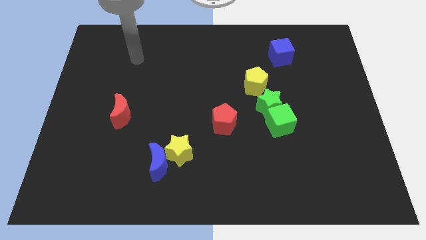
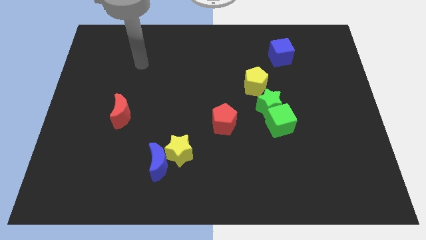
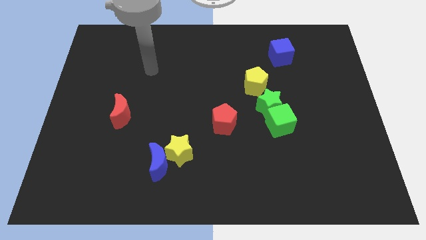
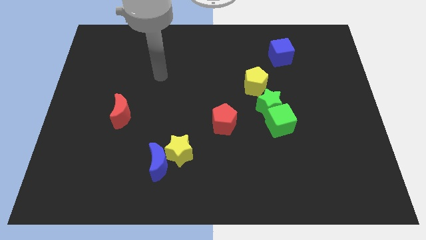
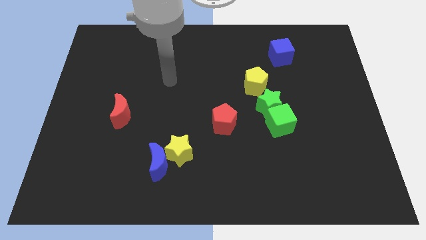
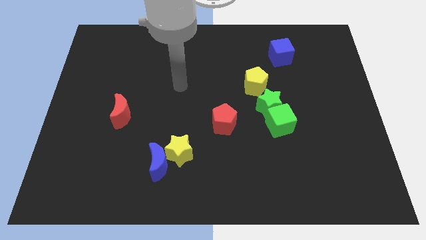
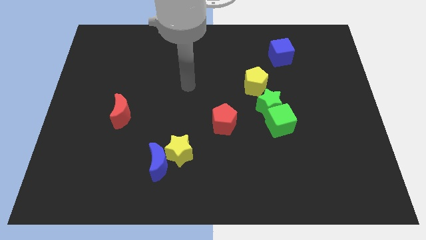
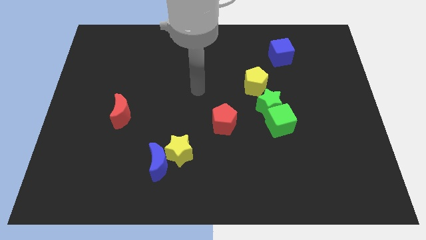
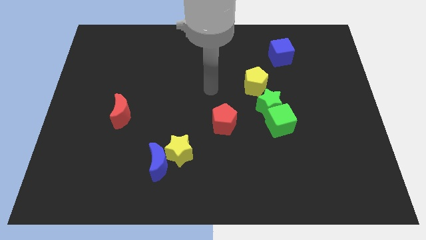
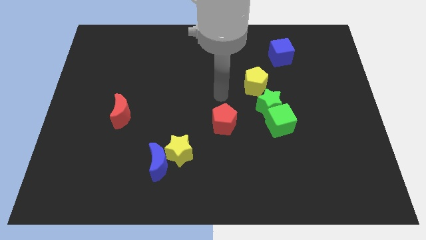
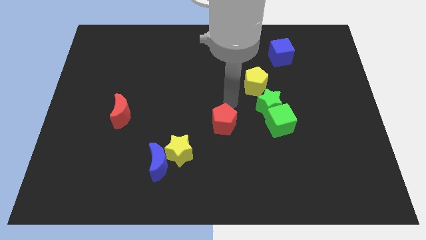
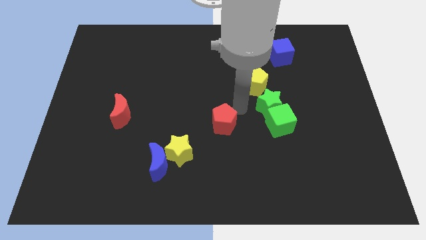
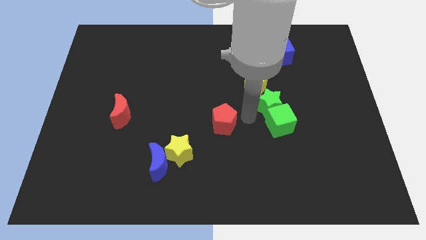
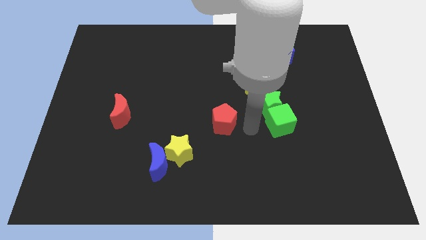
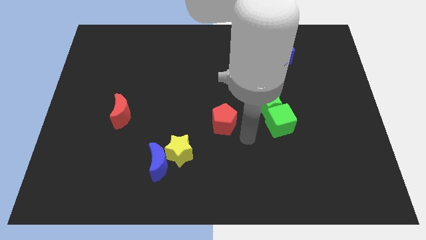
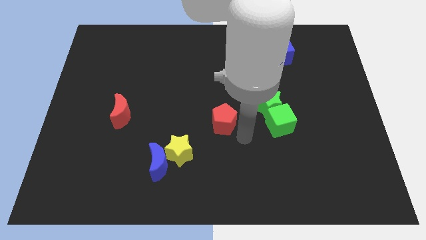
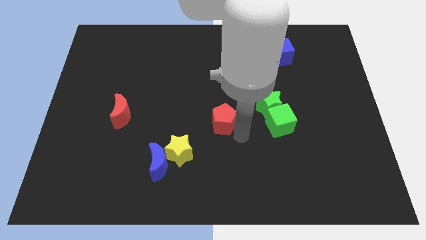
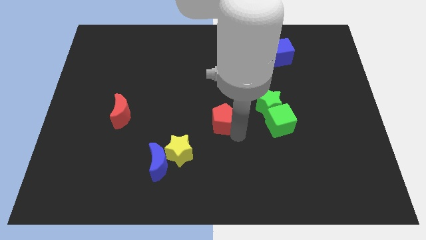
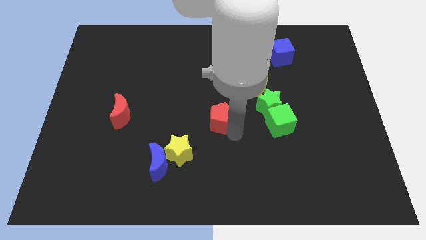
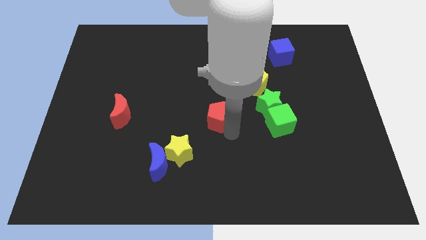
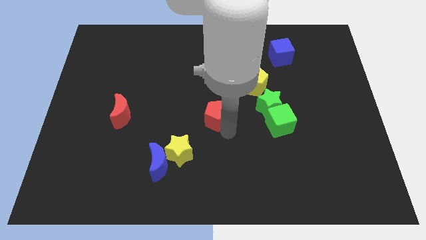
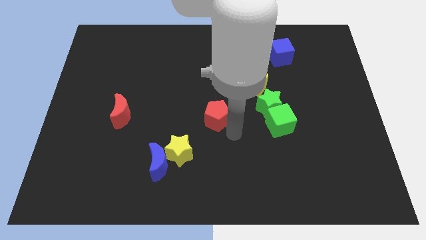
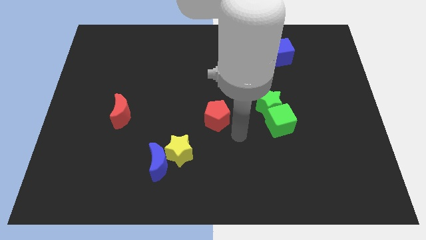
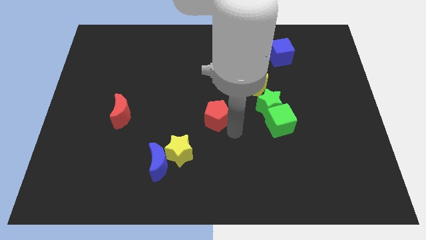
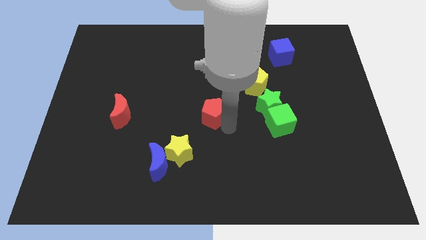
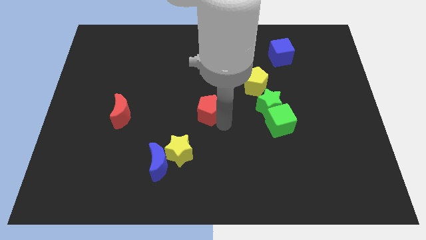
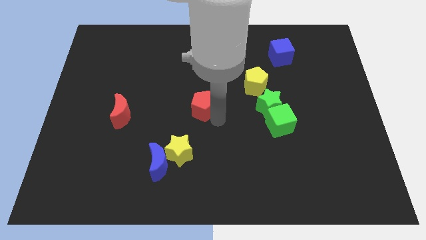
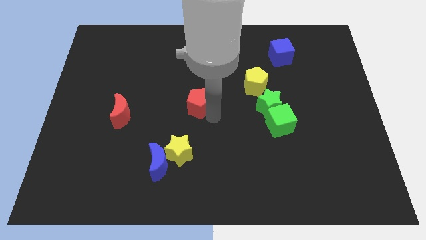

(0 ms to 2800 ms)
move the red pentagon upwards and to the left diagonally a bit

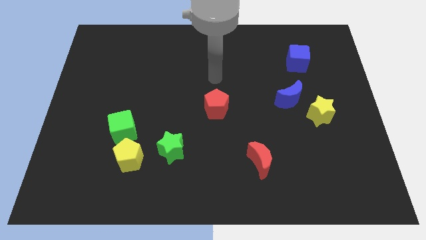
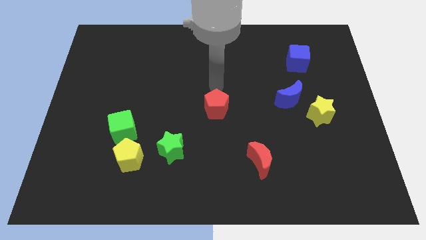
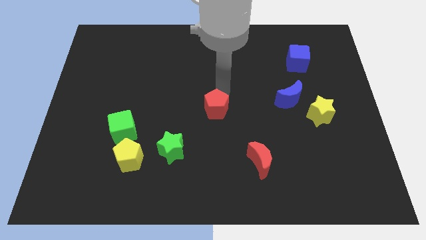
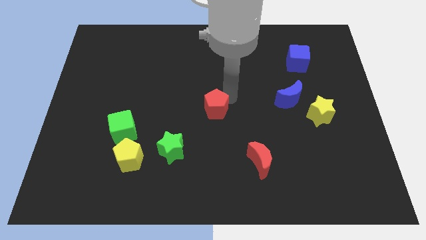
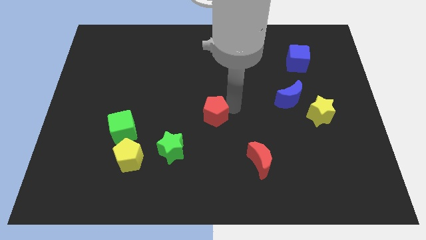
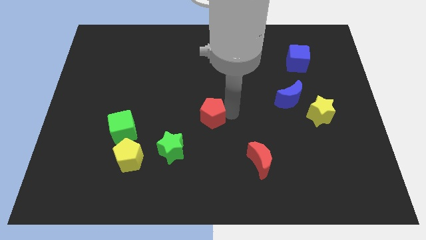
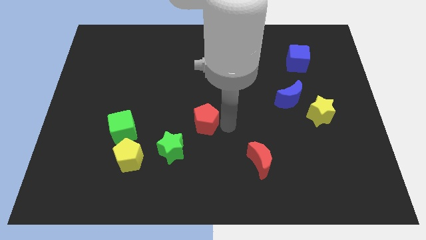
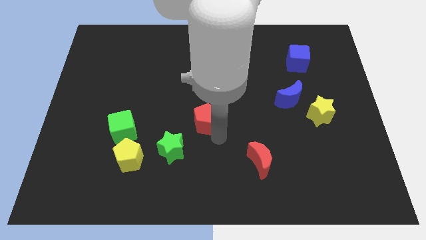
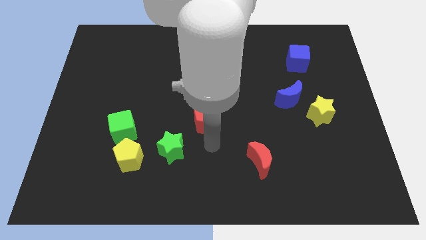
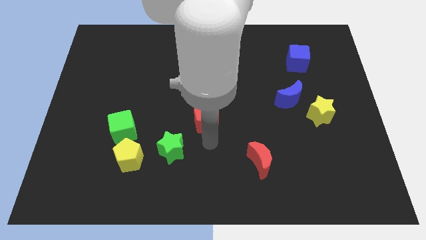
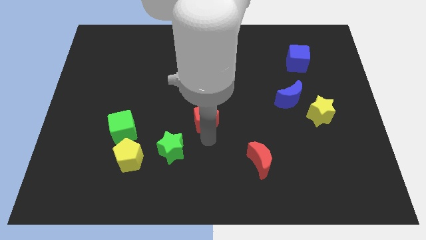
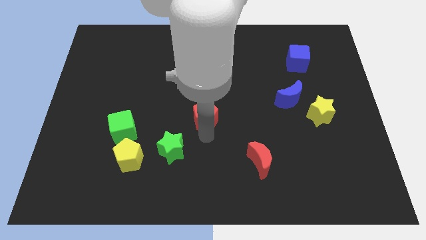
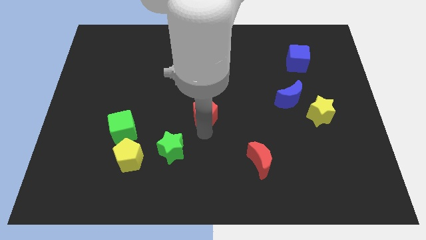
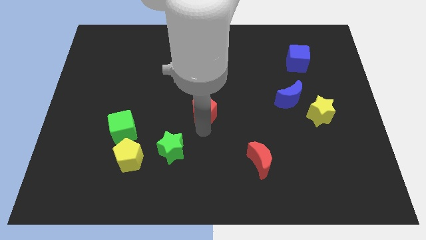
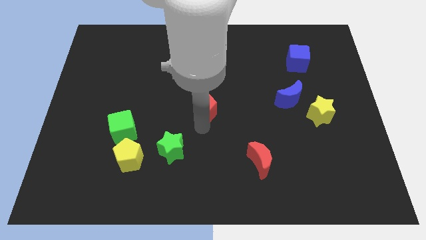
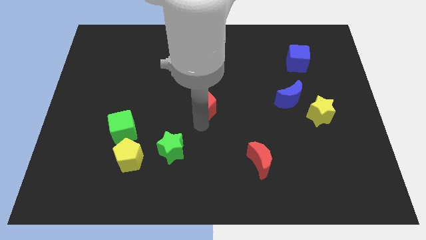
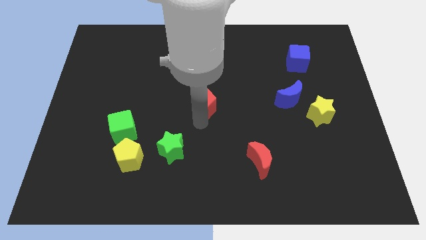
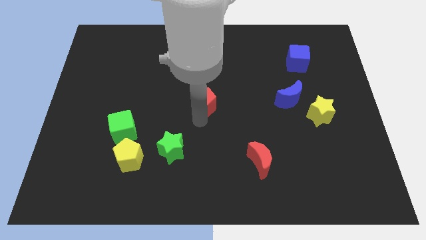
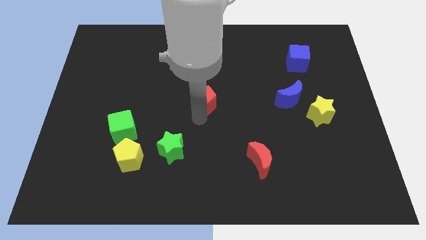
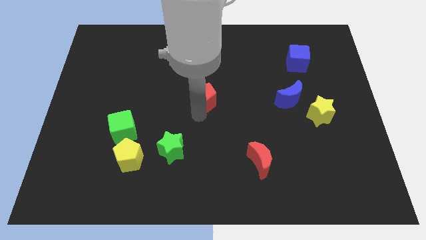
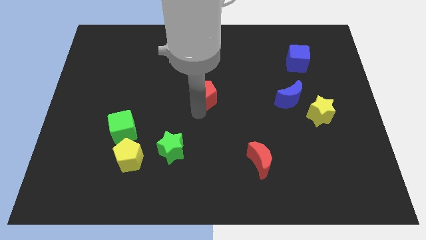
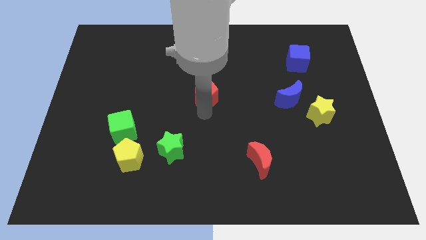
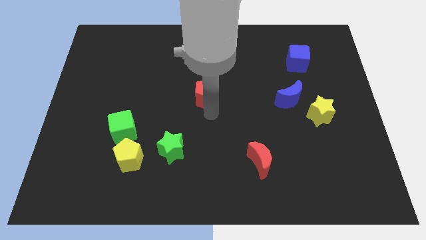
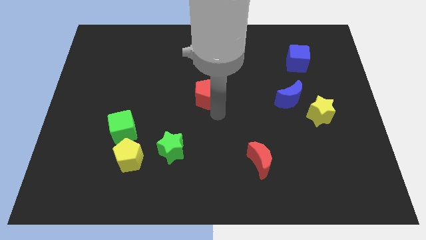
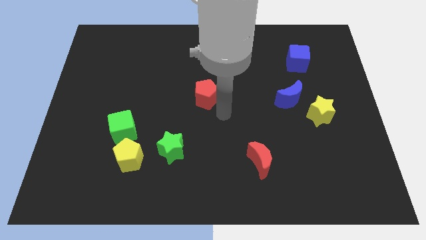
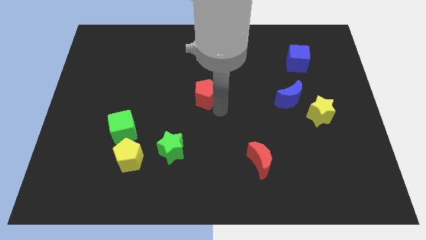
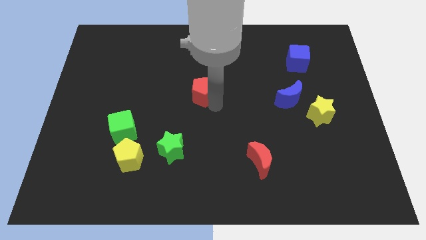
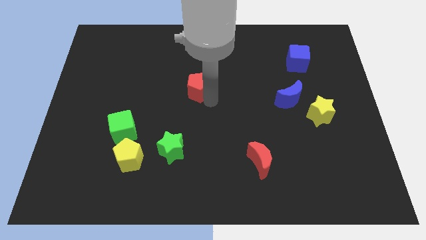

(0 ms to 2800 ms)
slightly slide the red pentagon upwards and to the left diagonally

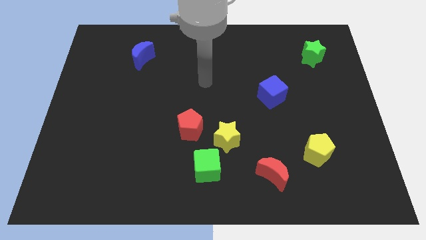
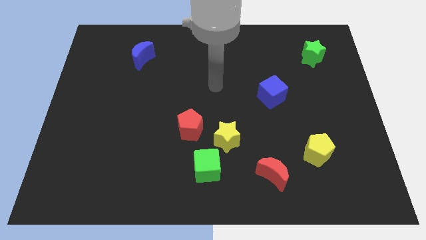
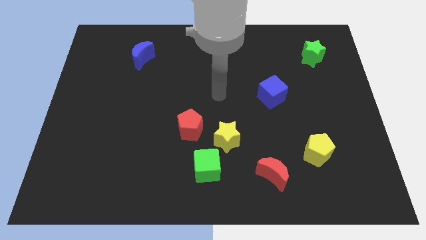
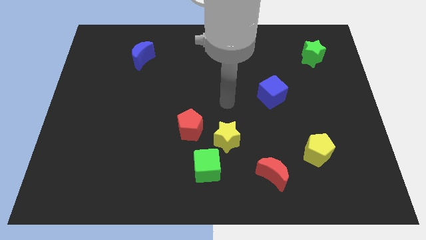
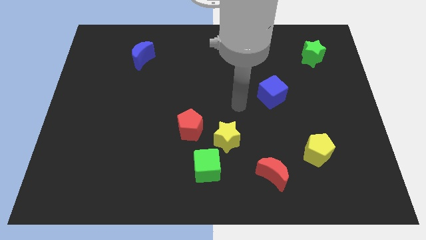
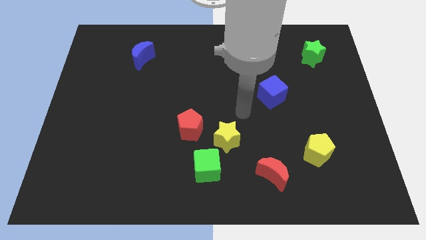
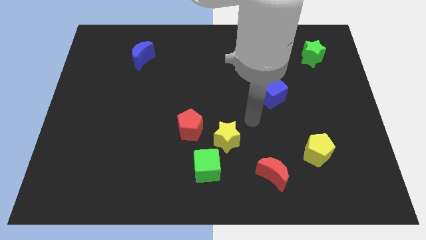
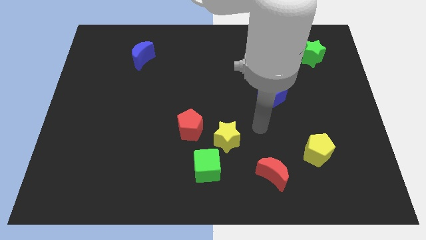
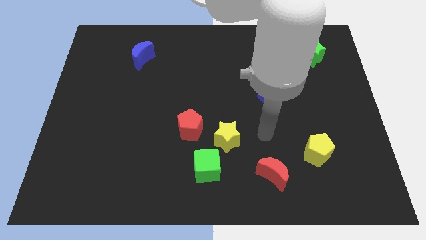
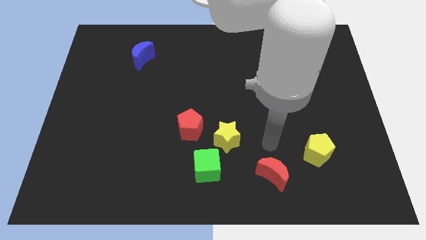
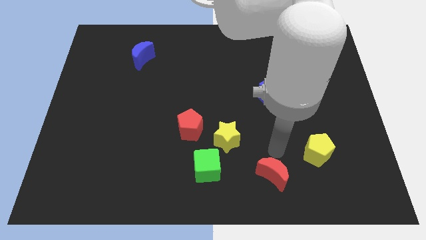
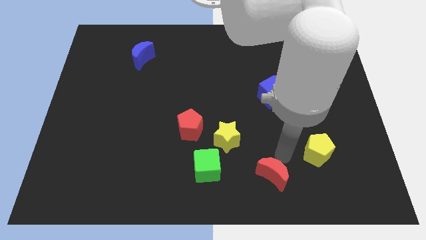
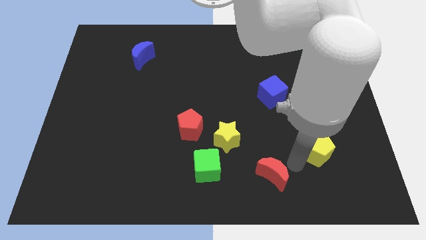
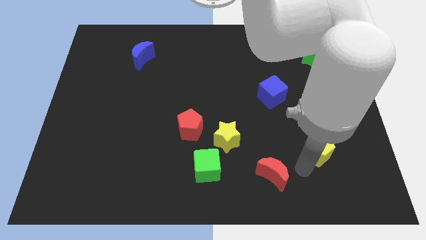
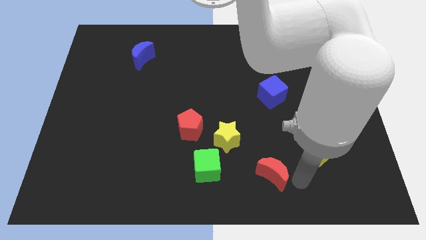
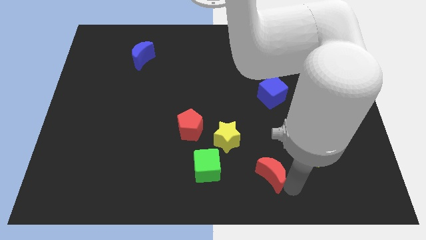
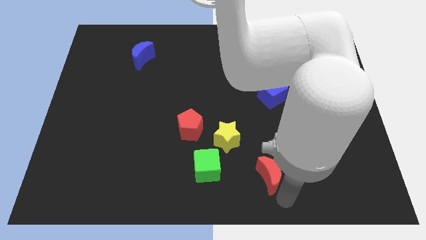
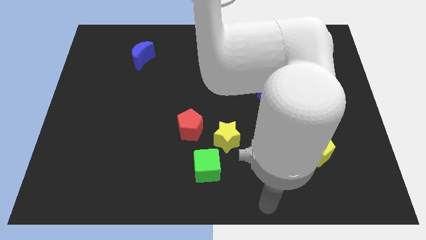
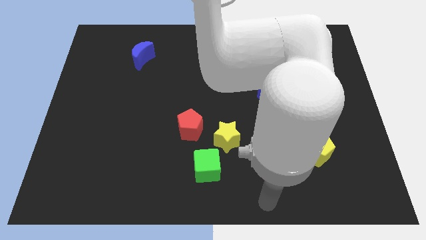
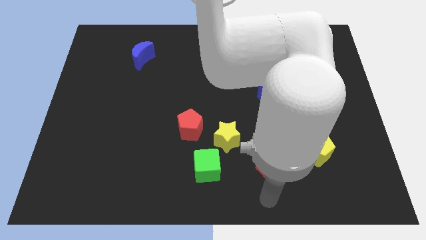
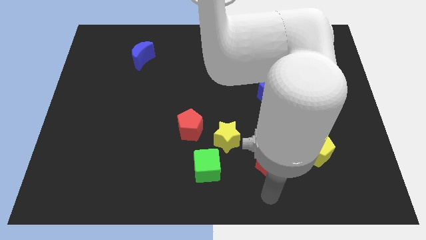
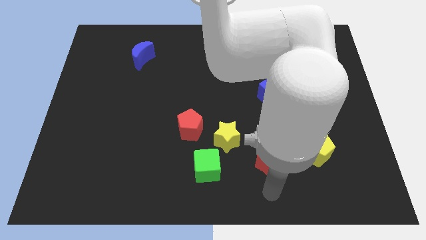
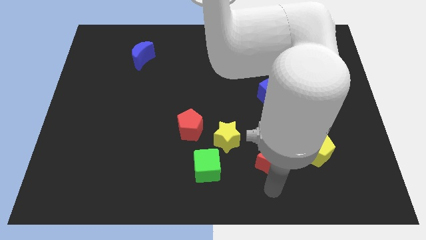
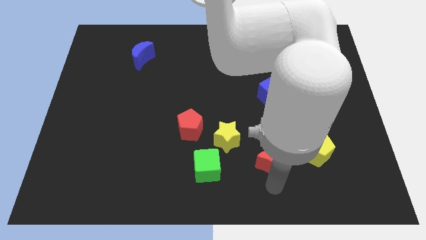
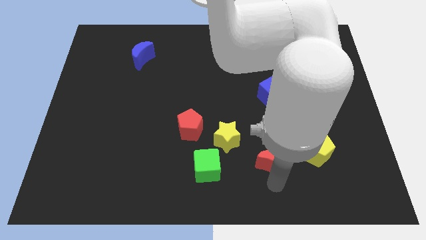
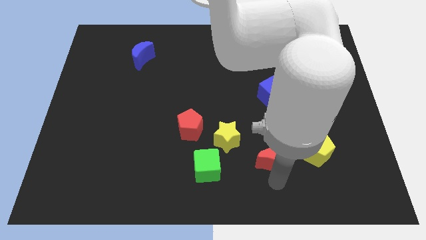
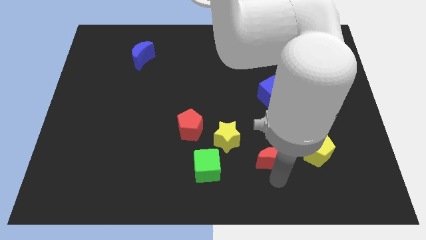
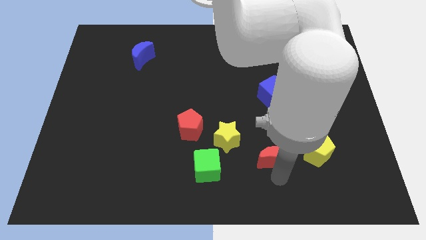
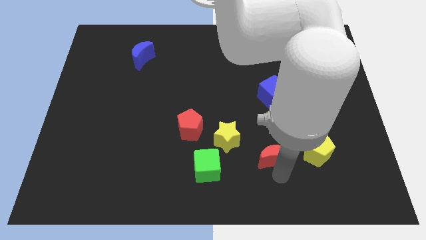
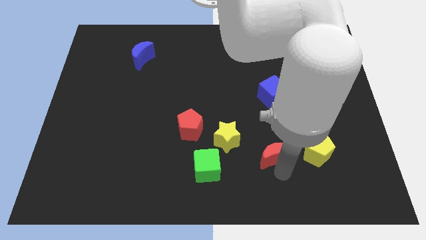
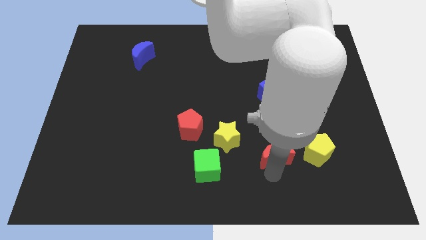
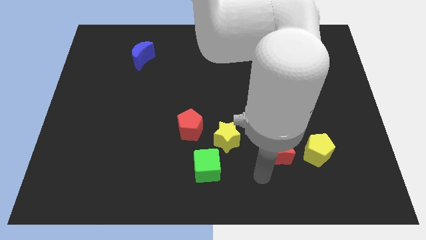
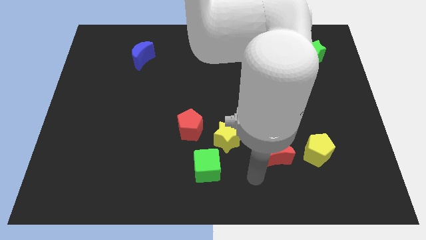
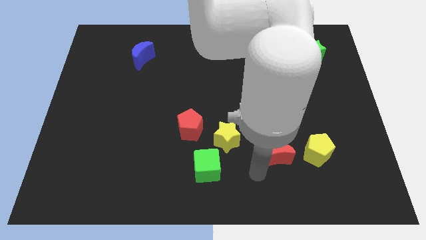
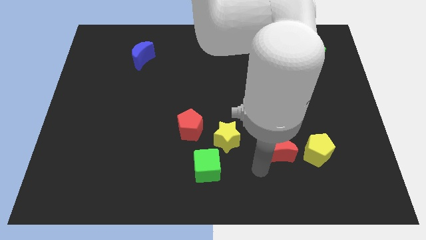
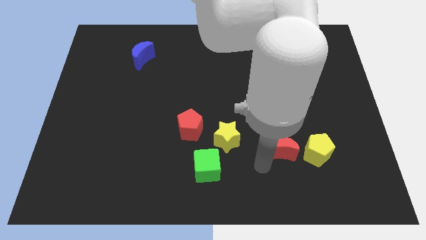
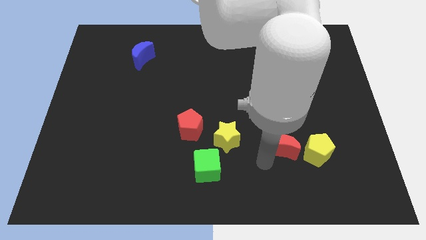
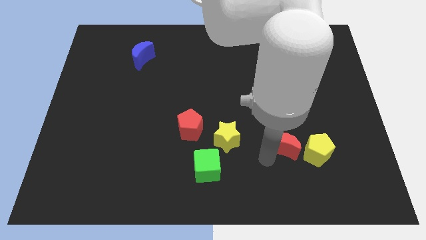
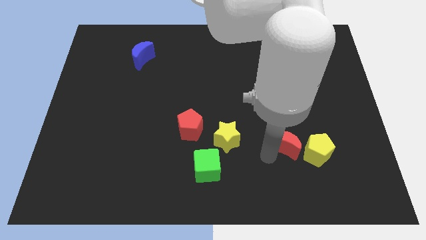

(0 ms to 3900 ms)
slightly push the red moon up and right
